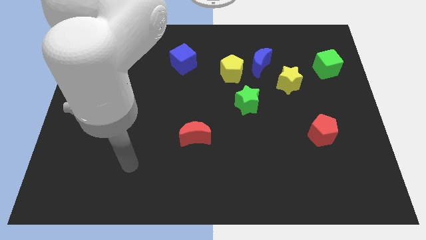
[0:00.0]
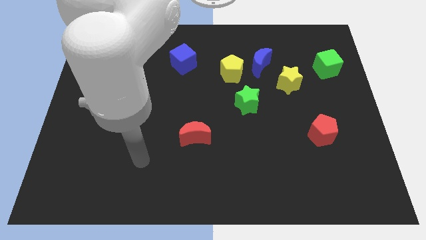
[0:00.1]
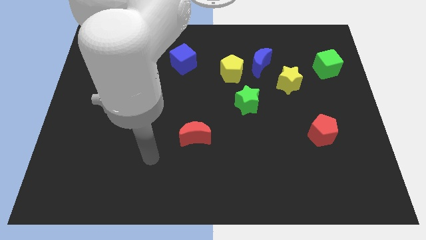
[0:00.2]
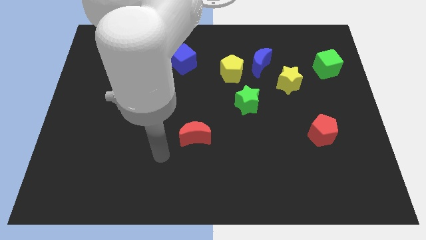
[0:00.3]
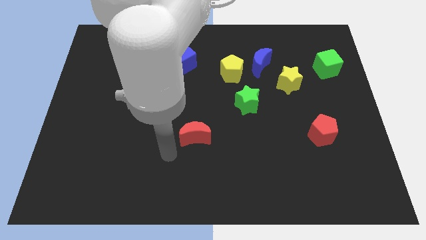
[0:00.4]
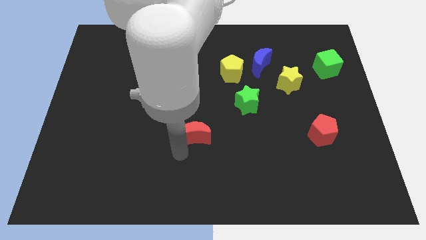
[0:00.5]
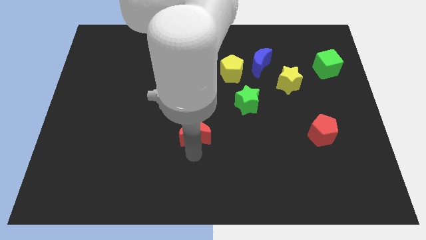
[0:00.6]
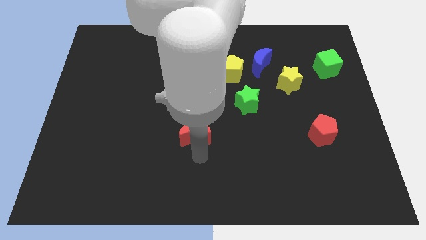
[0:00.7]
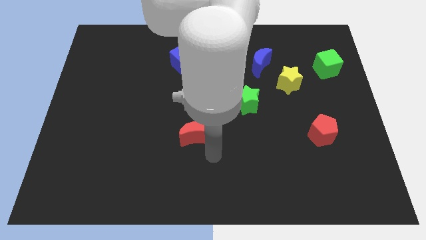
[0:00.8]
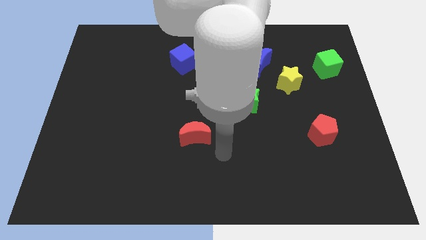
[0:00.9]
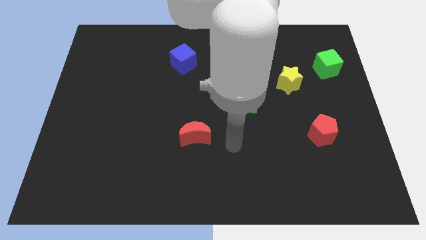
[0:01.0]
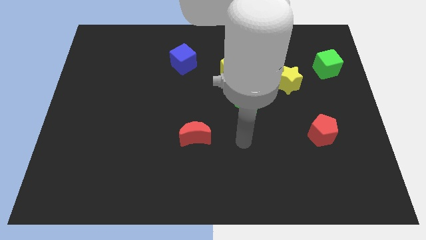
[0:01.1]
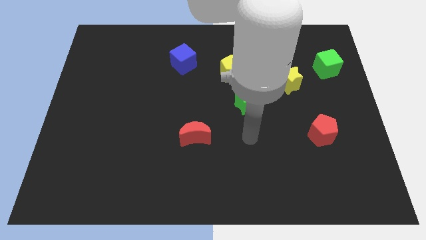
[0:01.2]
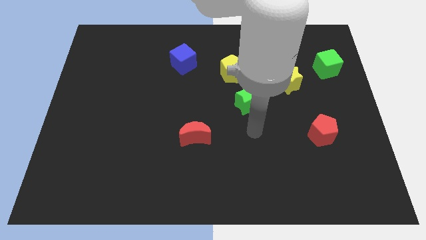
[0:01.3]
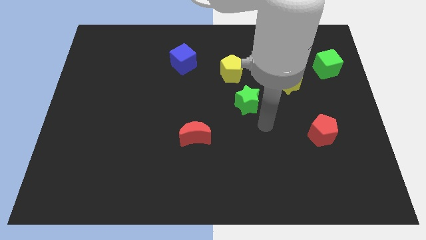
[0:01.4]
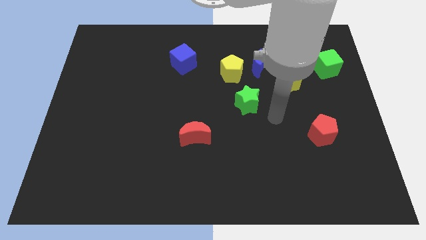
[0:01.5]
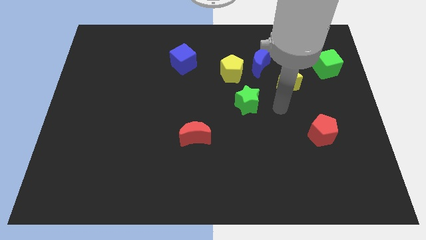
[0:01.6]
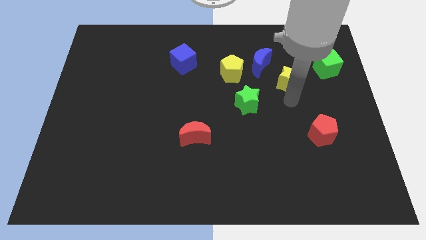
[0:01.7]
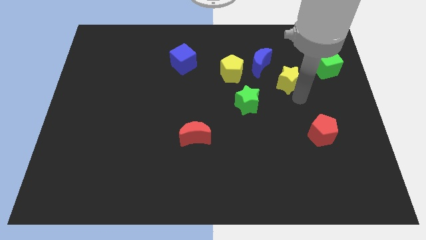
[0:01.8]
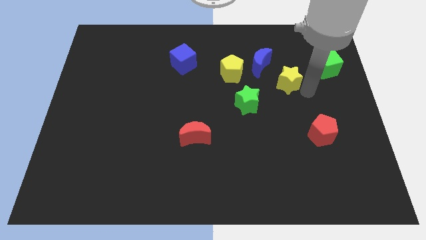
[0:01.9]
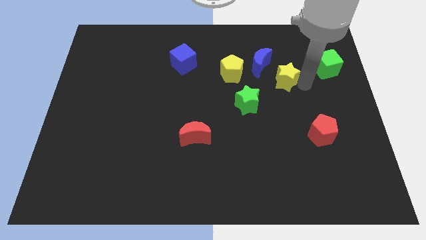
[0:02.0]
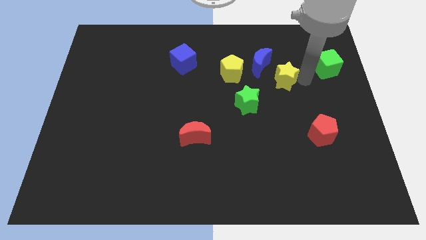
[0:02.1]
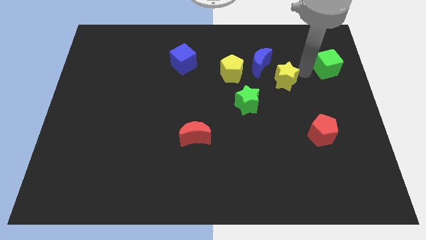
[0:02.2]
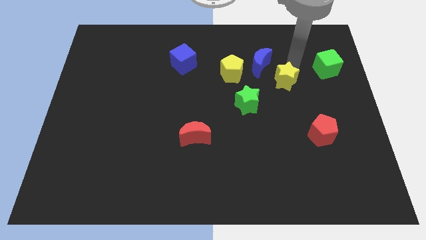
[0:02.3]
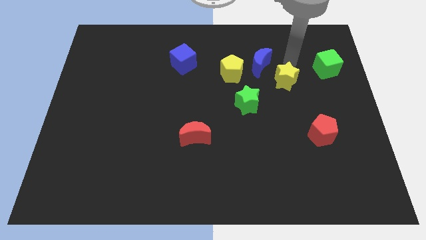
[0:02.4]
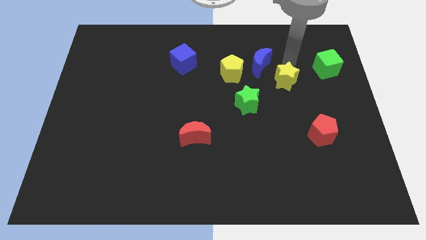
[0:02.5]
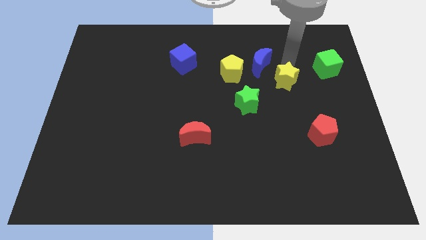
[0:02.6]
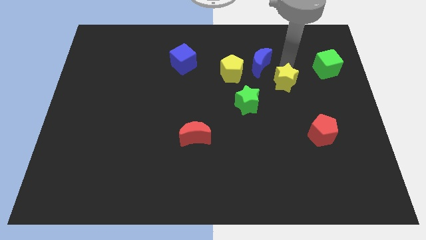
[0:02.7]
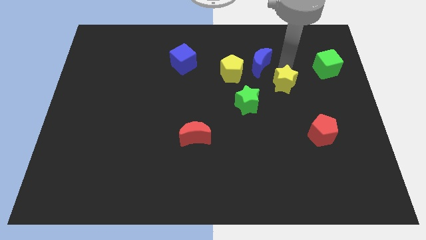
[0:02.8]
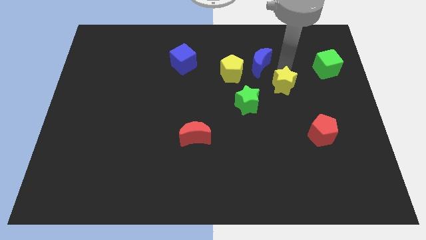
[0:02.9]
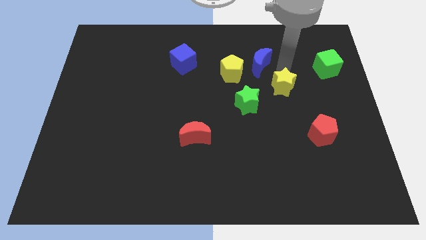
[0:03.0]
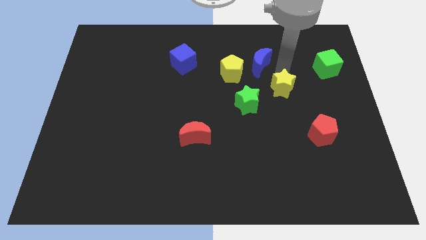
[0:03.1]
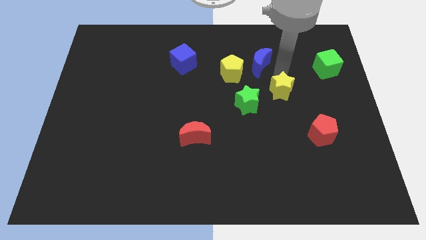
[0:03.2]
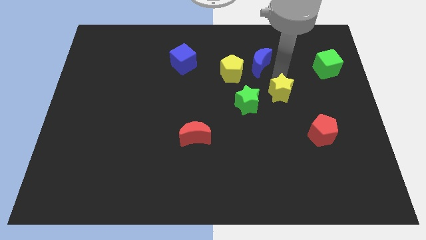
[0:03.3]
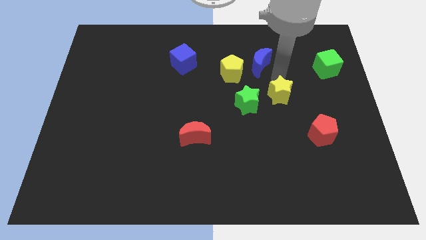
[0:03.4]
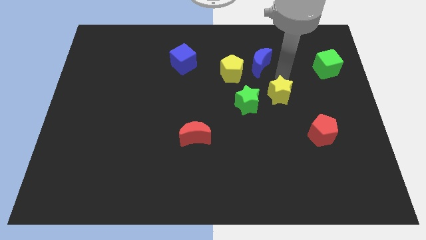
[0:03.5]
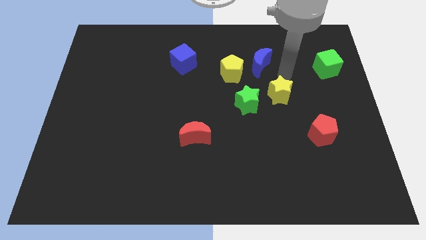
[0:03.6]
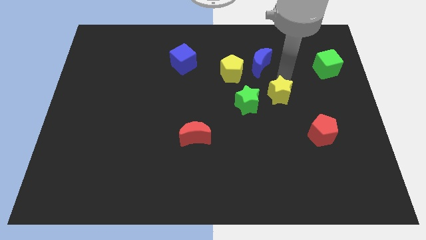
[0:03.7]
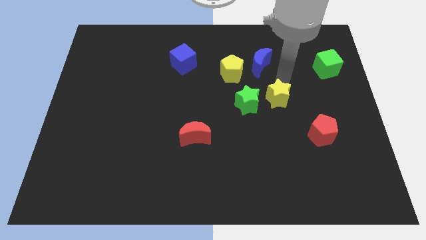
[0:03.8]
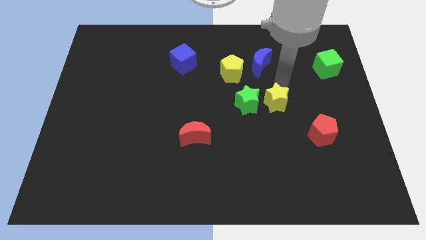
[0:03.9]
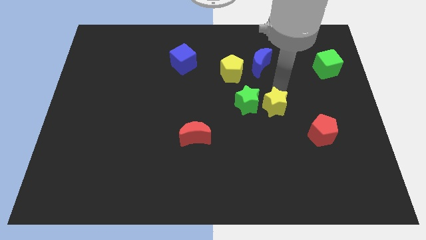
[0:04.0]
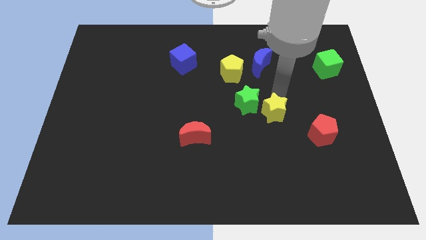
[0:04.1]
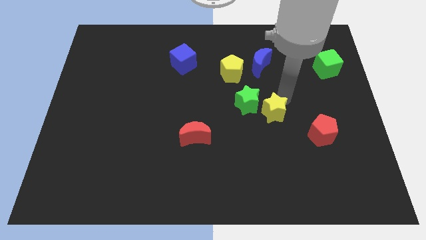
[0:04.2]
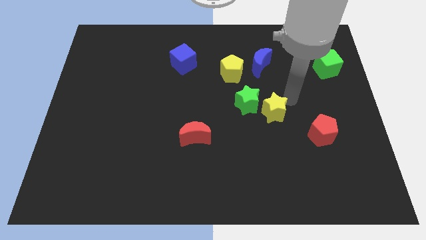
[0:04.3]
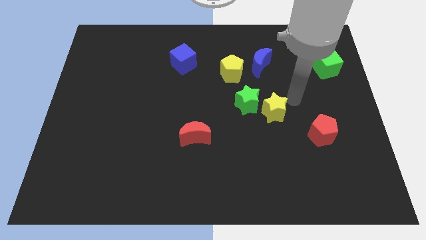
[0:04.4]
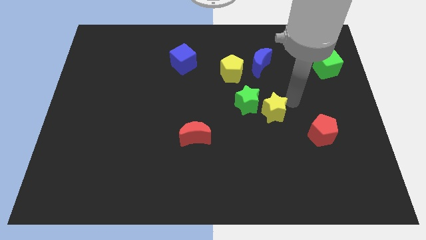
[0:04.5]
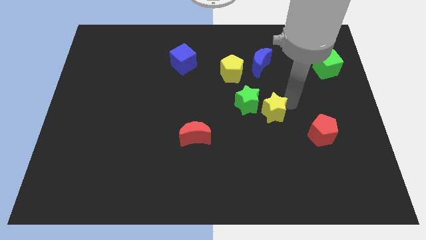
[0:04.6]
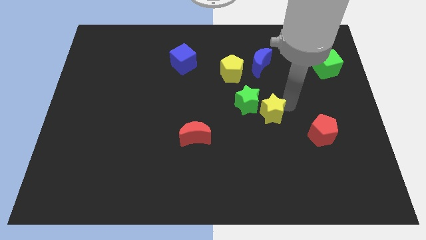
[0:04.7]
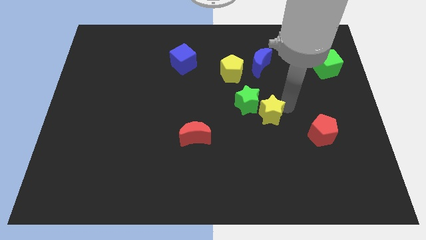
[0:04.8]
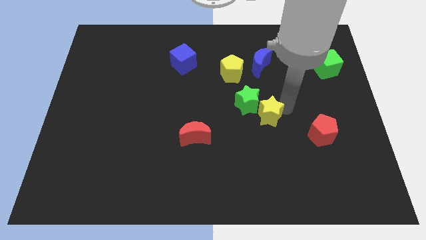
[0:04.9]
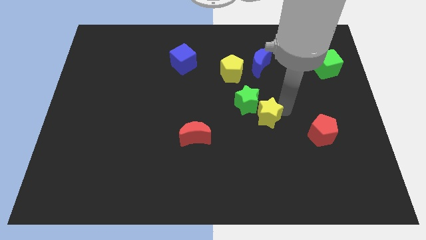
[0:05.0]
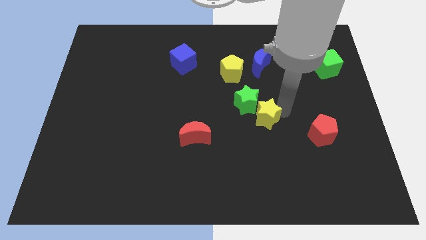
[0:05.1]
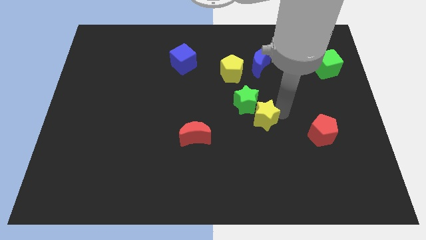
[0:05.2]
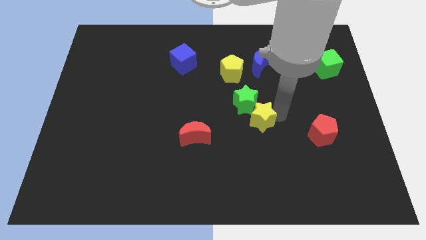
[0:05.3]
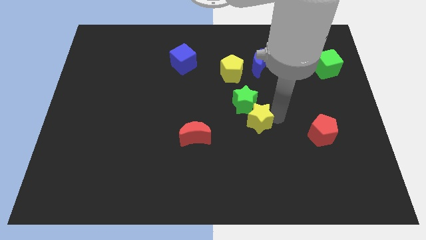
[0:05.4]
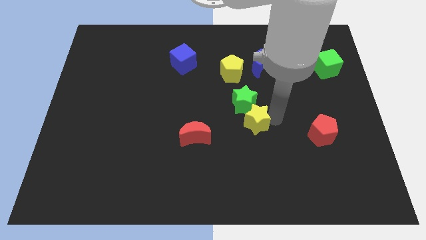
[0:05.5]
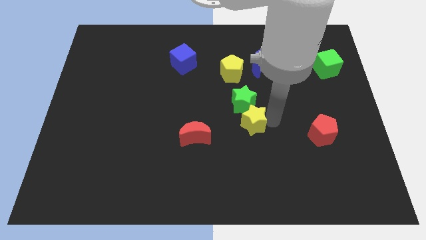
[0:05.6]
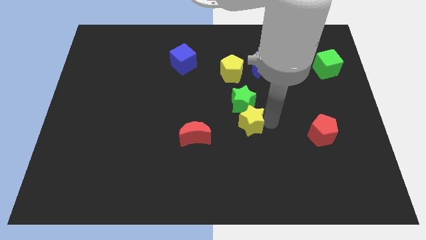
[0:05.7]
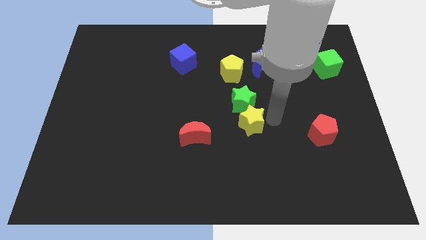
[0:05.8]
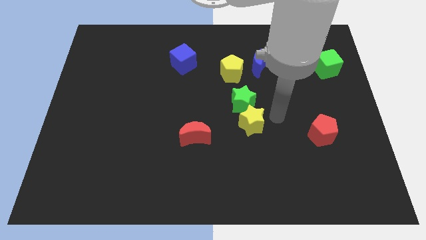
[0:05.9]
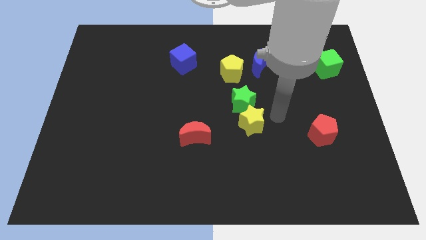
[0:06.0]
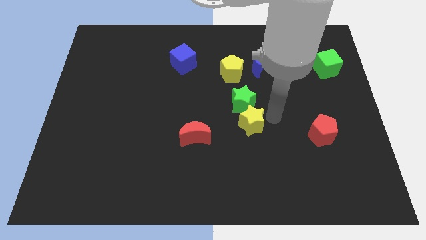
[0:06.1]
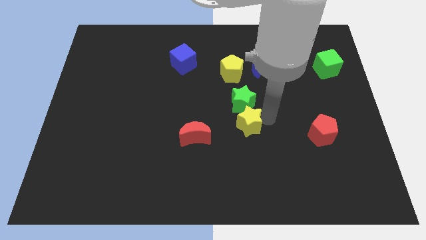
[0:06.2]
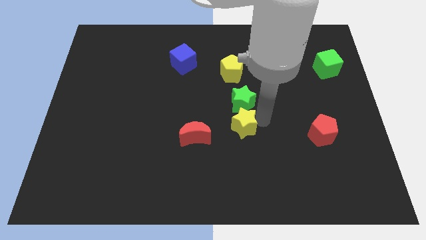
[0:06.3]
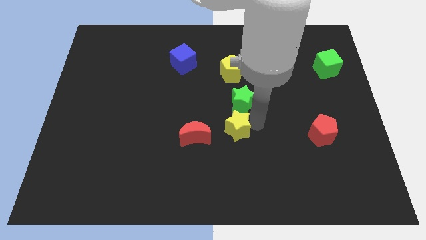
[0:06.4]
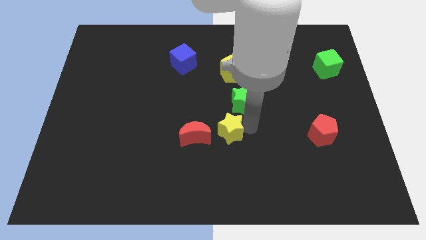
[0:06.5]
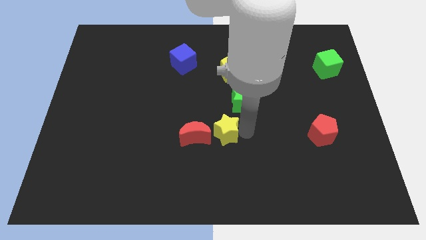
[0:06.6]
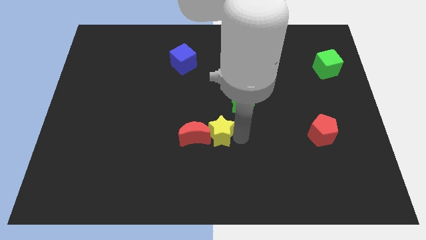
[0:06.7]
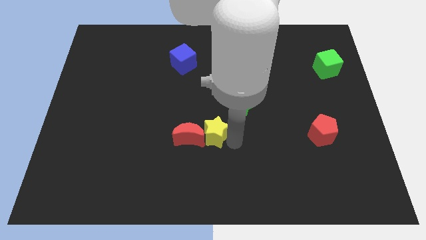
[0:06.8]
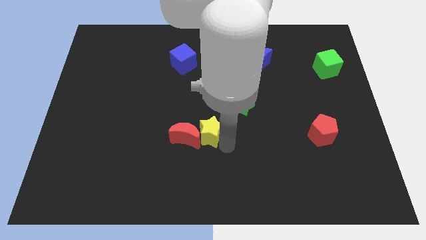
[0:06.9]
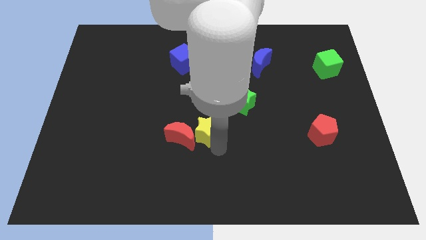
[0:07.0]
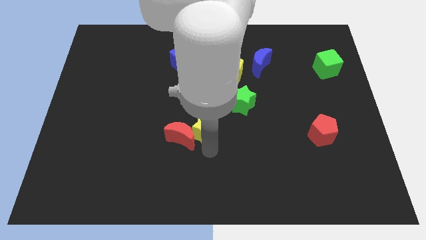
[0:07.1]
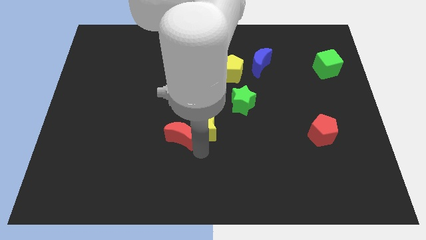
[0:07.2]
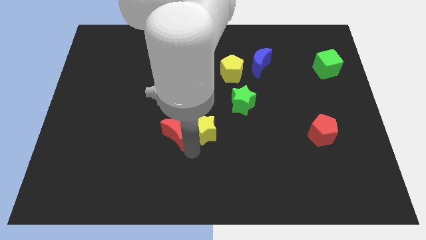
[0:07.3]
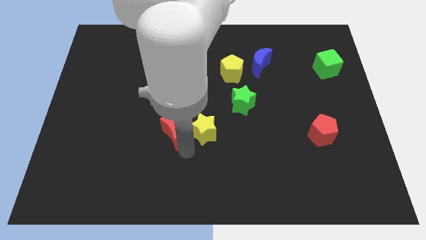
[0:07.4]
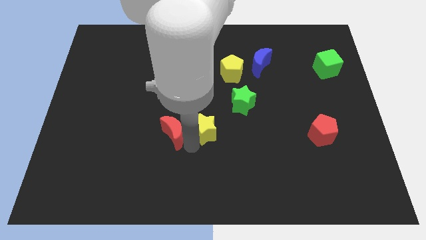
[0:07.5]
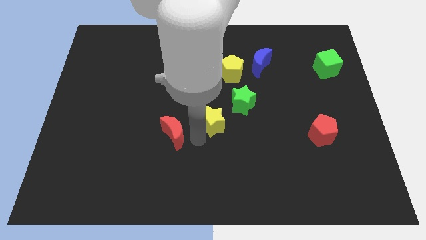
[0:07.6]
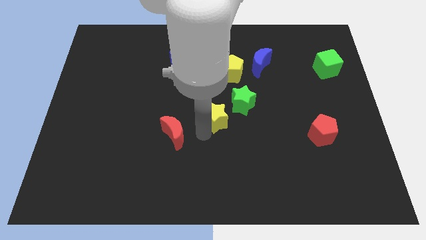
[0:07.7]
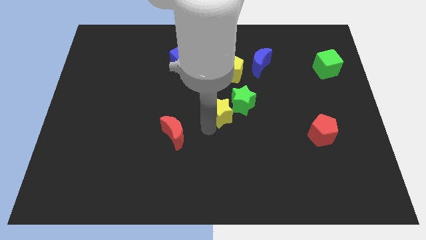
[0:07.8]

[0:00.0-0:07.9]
slide the yellow star to the bottom side of the yellow pentagon

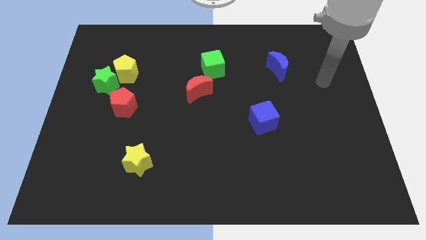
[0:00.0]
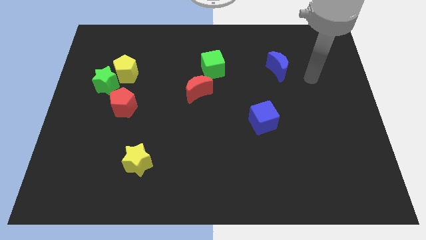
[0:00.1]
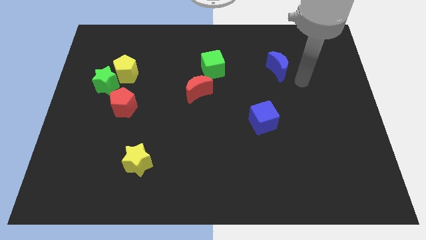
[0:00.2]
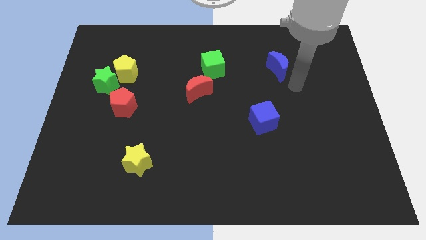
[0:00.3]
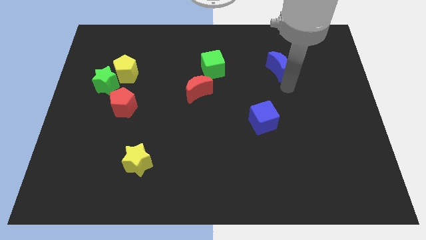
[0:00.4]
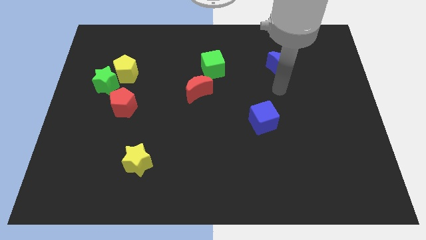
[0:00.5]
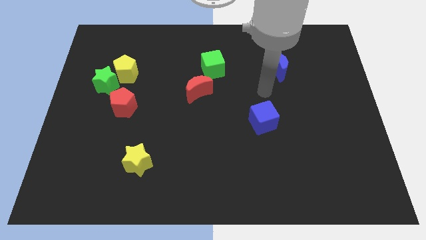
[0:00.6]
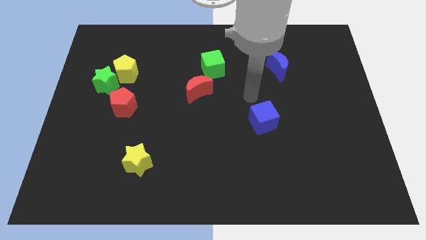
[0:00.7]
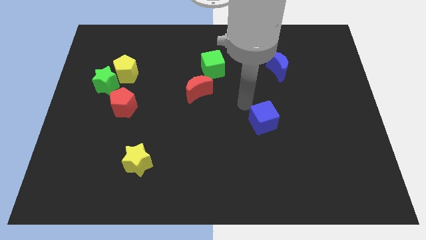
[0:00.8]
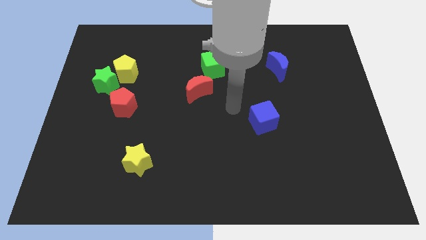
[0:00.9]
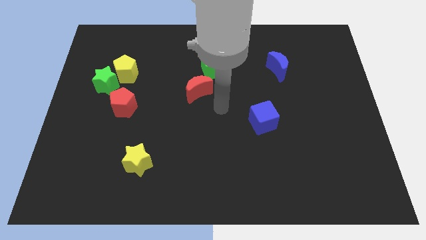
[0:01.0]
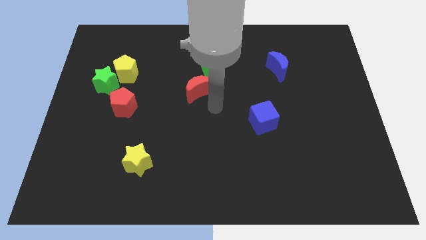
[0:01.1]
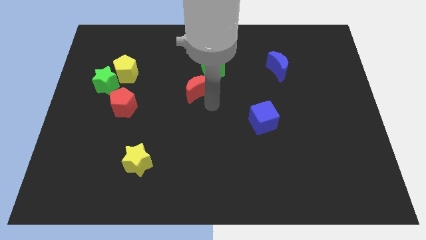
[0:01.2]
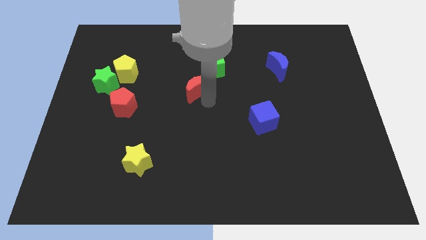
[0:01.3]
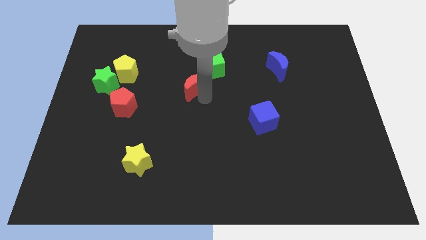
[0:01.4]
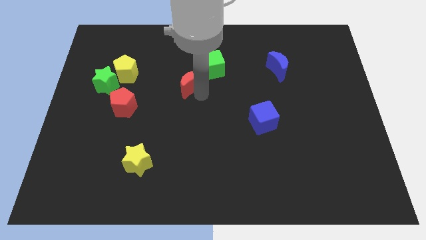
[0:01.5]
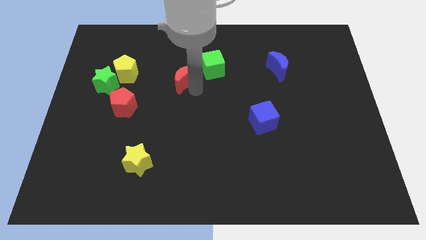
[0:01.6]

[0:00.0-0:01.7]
put the red moon left of the green cube
